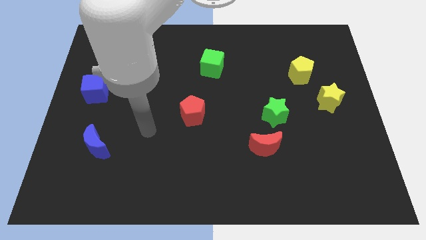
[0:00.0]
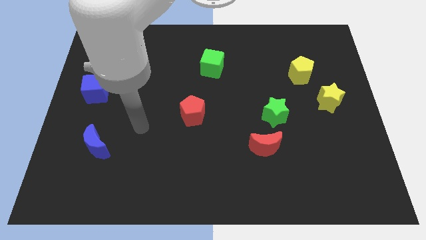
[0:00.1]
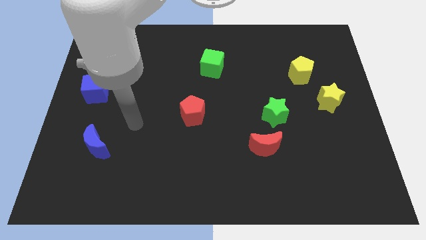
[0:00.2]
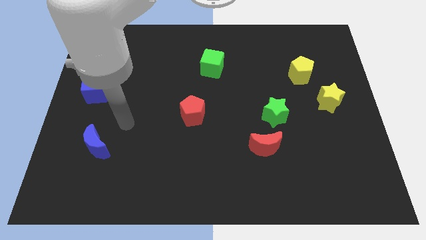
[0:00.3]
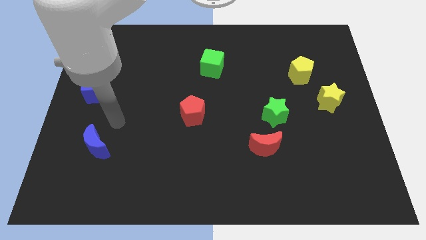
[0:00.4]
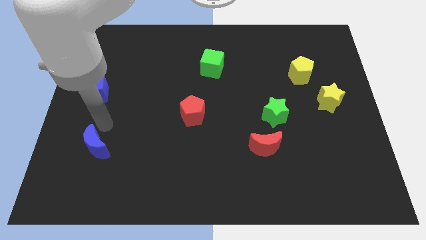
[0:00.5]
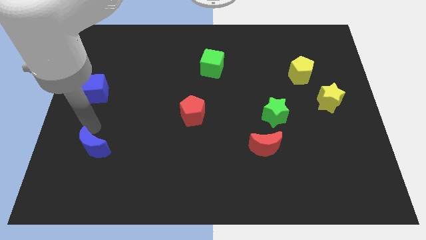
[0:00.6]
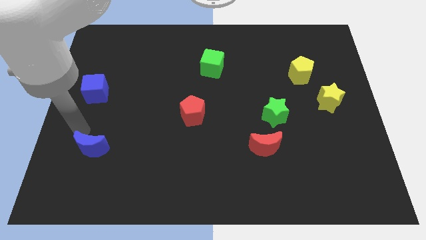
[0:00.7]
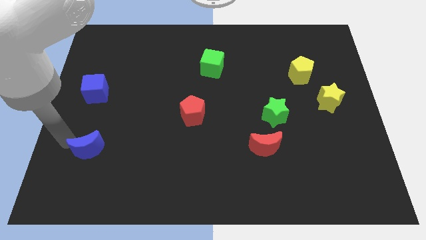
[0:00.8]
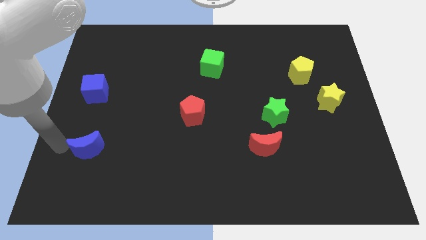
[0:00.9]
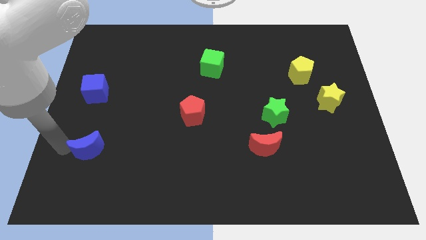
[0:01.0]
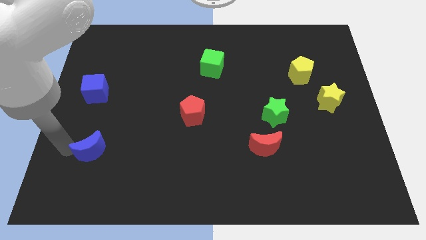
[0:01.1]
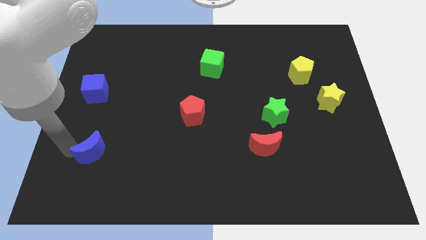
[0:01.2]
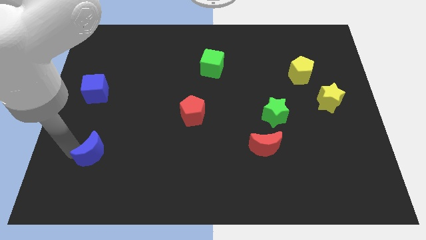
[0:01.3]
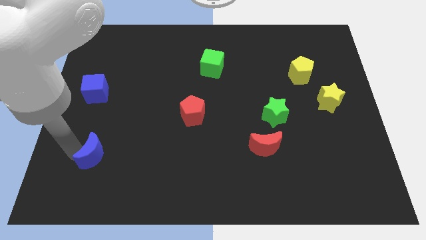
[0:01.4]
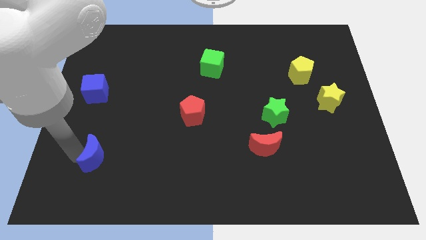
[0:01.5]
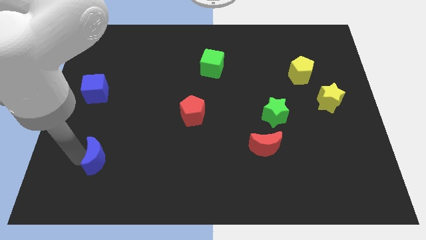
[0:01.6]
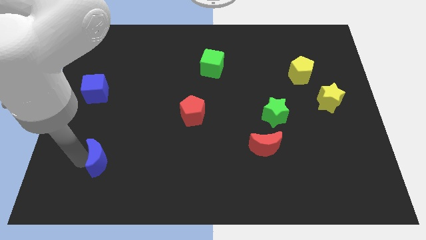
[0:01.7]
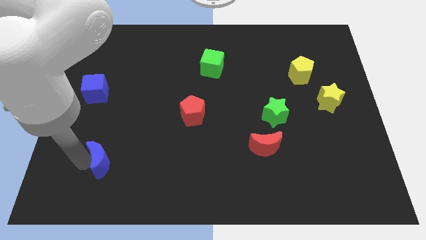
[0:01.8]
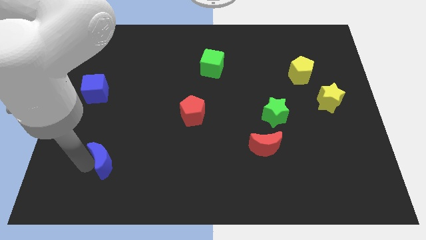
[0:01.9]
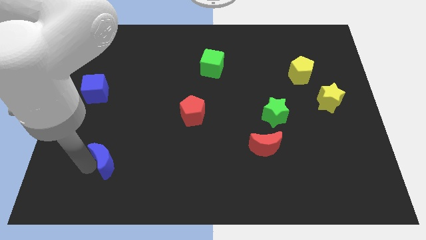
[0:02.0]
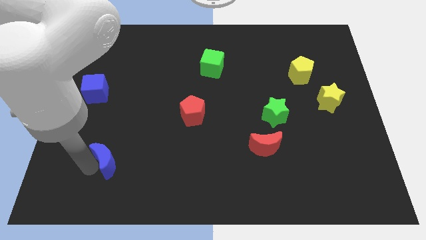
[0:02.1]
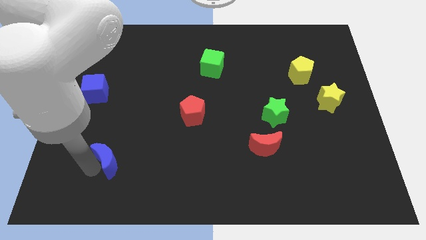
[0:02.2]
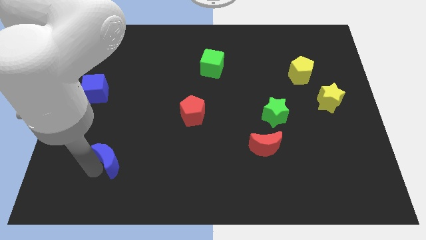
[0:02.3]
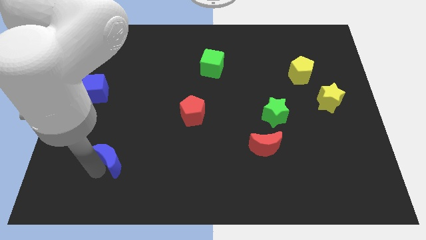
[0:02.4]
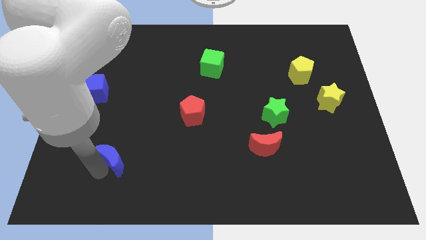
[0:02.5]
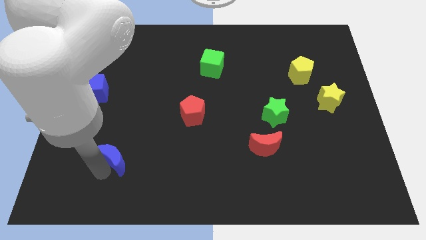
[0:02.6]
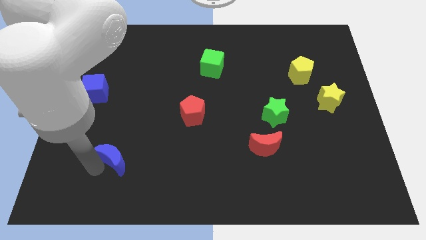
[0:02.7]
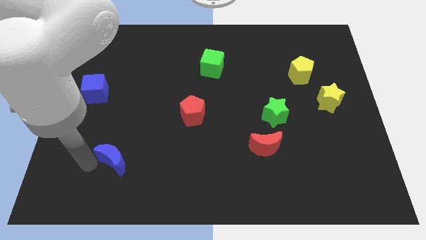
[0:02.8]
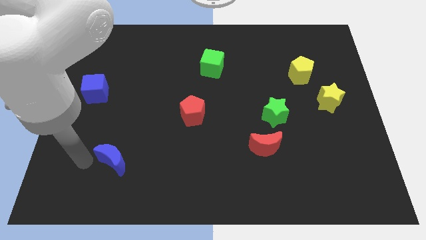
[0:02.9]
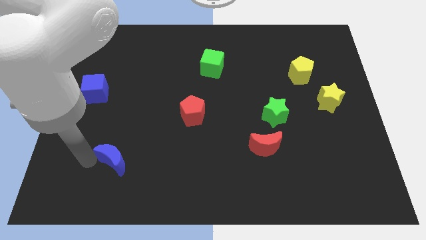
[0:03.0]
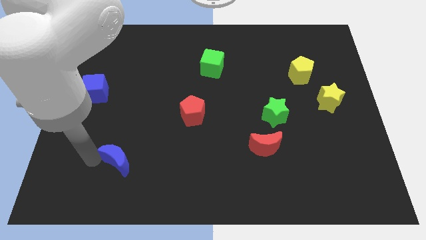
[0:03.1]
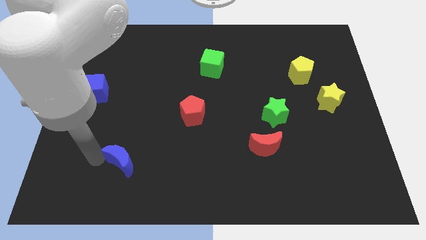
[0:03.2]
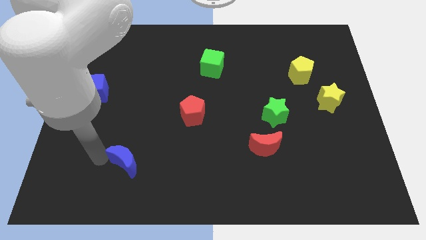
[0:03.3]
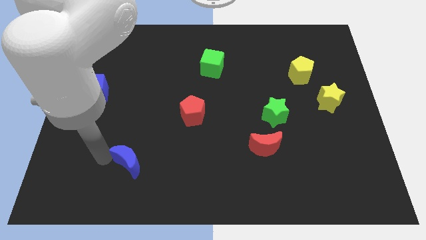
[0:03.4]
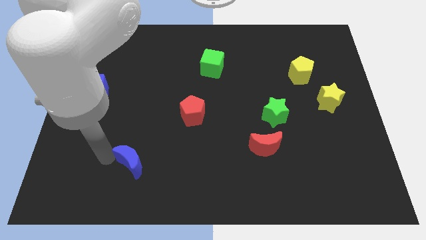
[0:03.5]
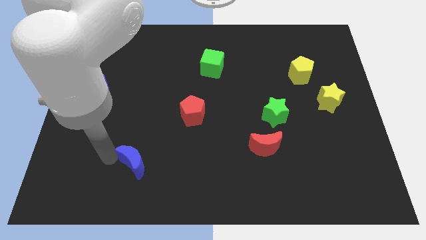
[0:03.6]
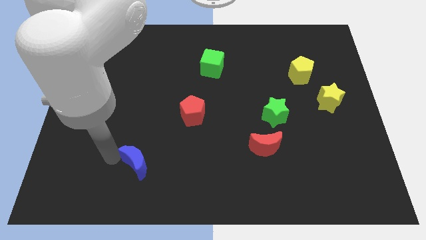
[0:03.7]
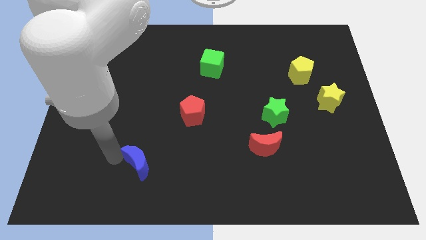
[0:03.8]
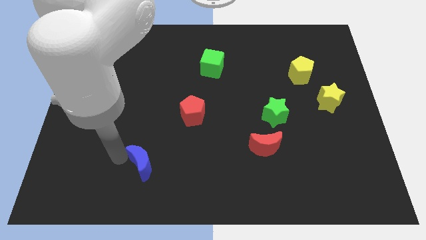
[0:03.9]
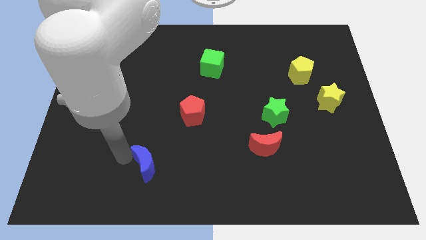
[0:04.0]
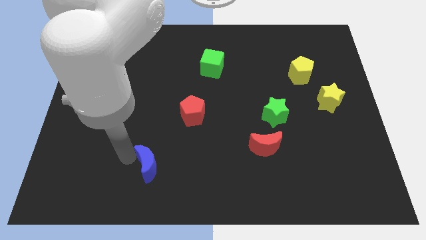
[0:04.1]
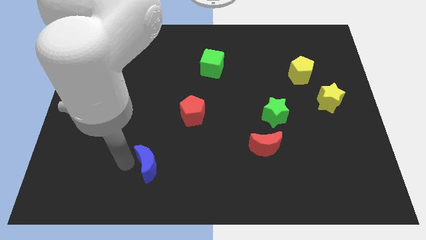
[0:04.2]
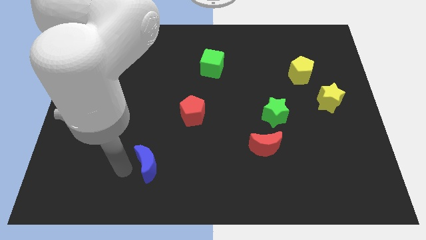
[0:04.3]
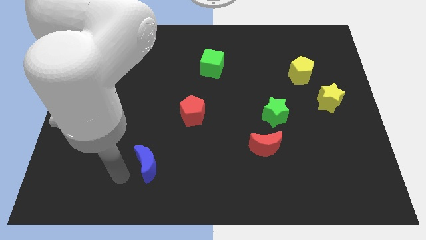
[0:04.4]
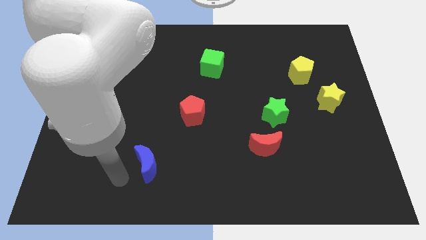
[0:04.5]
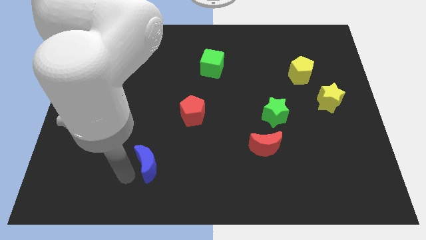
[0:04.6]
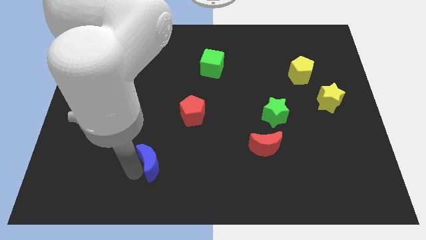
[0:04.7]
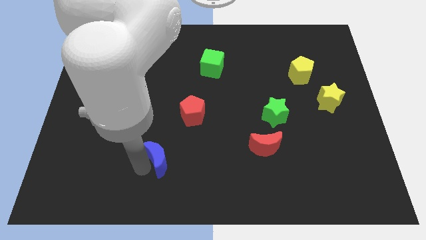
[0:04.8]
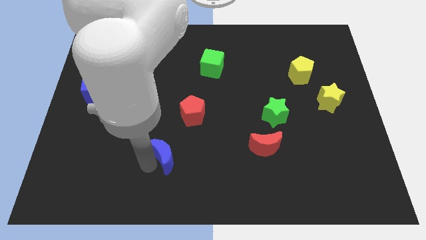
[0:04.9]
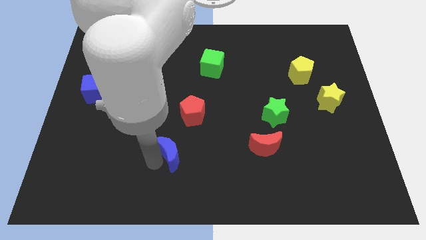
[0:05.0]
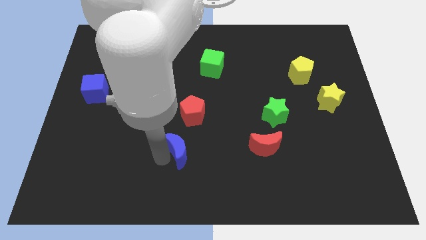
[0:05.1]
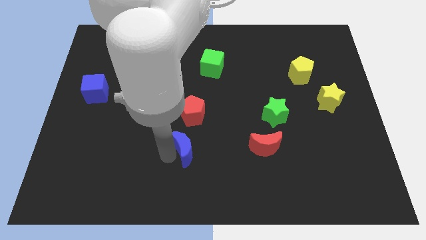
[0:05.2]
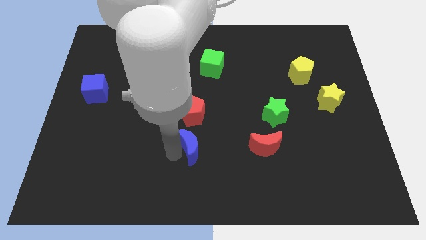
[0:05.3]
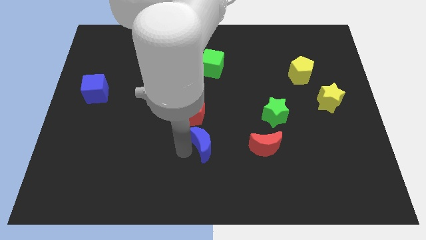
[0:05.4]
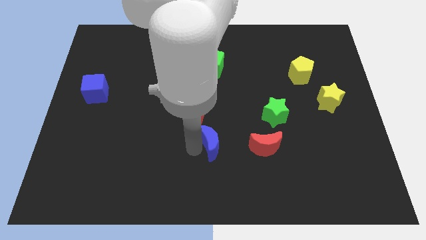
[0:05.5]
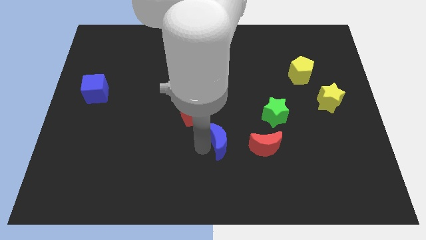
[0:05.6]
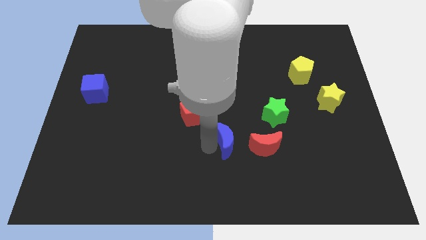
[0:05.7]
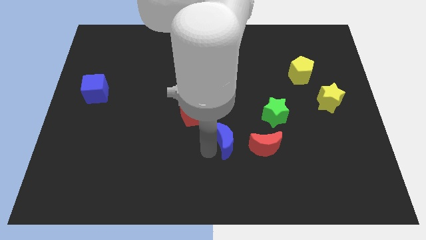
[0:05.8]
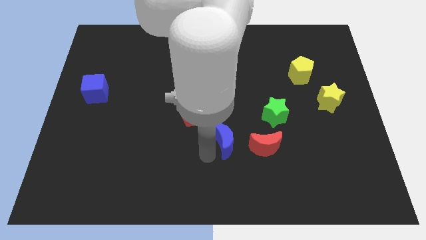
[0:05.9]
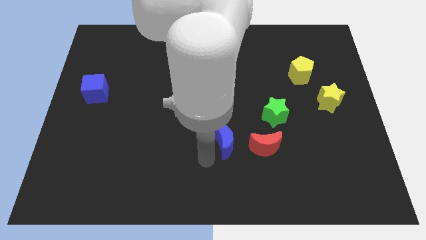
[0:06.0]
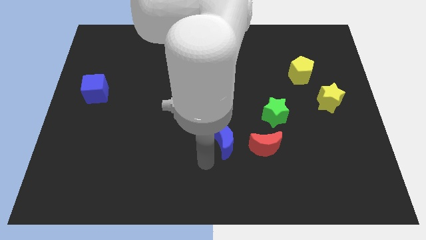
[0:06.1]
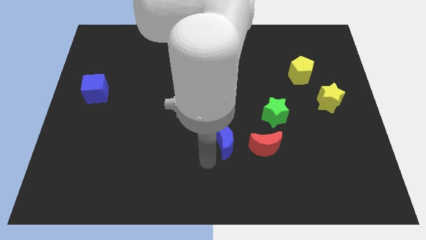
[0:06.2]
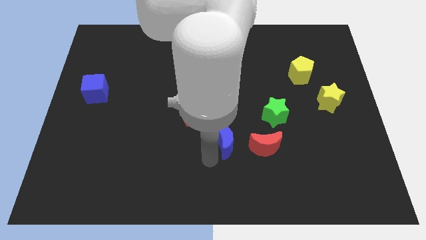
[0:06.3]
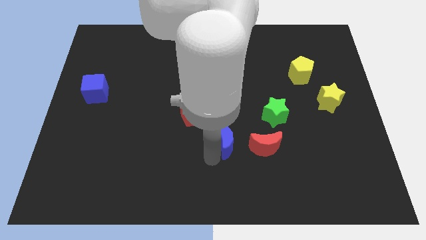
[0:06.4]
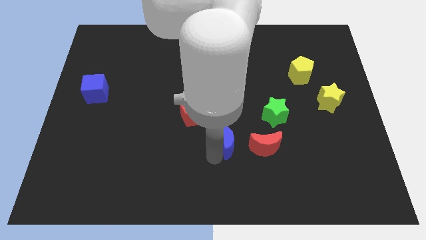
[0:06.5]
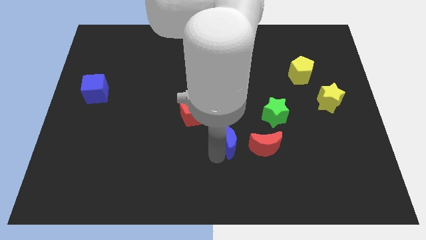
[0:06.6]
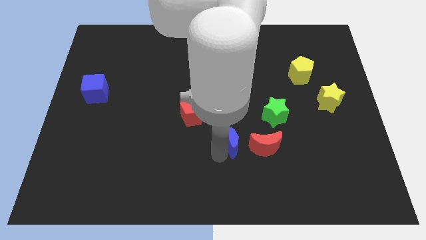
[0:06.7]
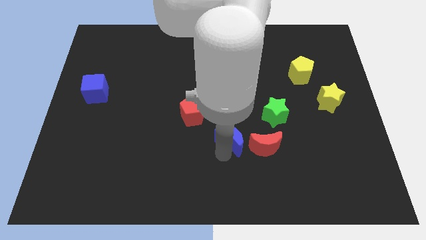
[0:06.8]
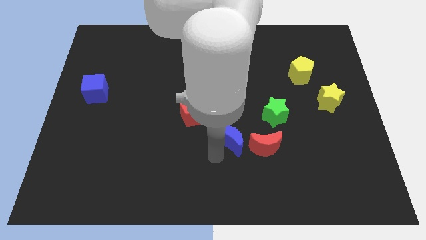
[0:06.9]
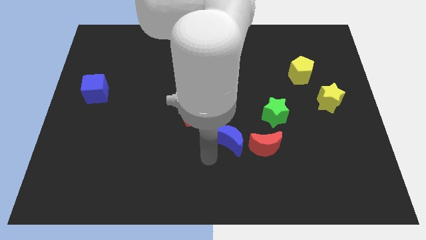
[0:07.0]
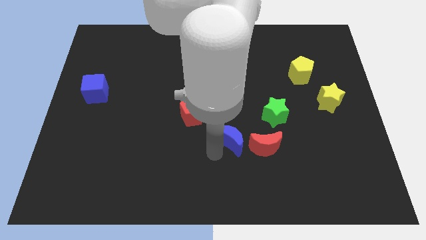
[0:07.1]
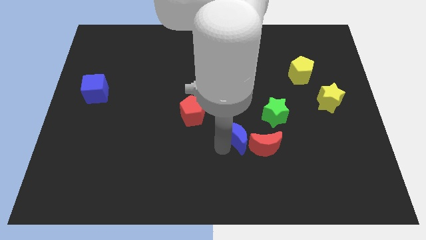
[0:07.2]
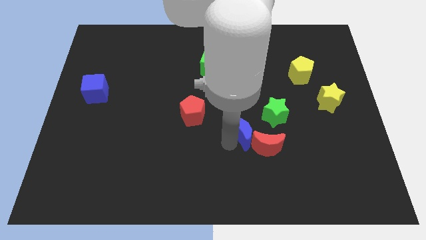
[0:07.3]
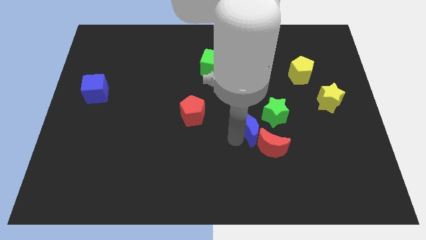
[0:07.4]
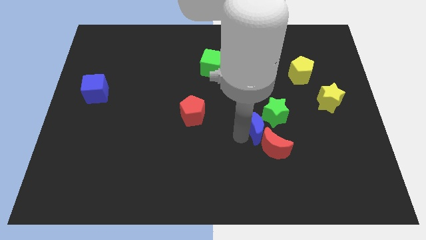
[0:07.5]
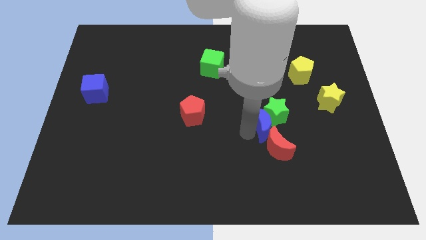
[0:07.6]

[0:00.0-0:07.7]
move the blue moon next to the green star

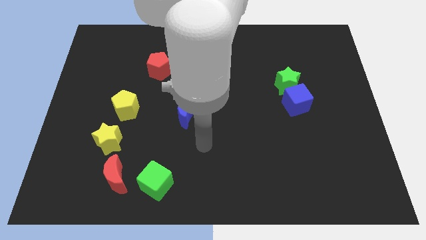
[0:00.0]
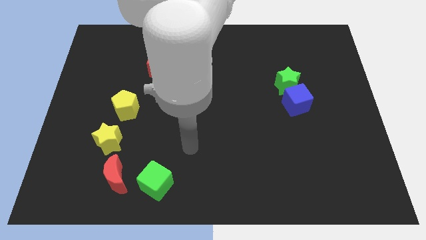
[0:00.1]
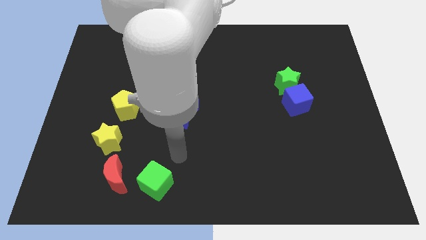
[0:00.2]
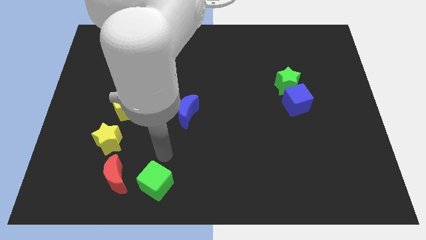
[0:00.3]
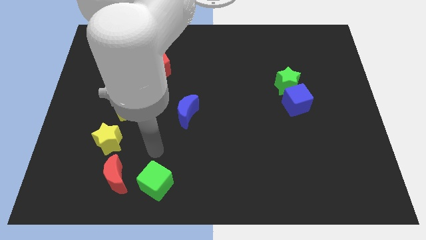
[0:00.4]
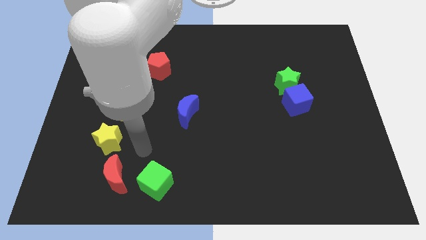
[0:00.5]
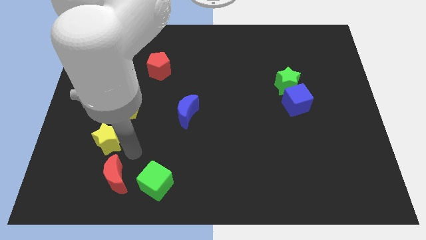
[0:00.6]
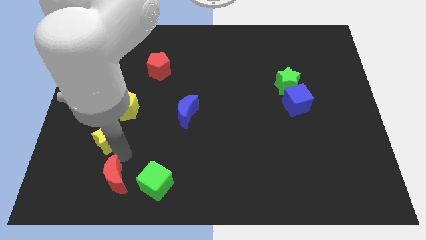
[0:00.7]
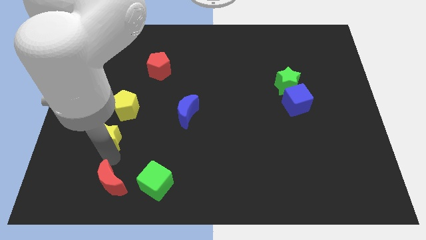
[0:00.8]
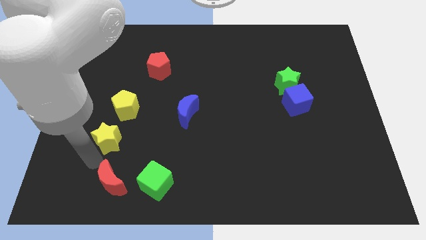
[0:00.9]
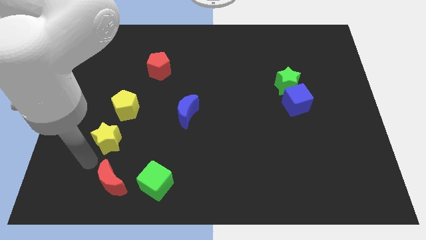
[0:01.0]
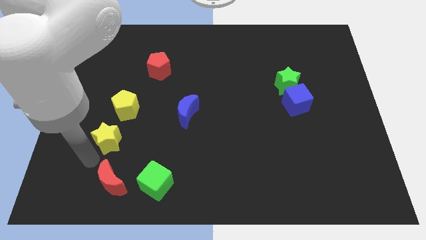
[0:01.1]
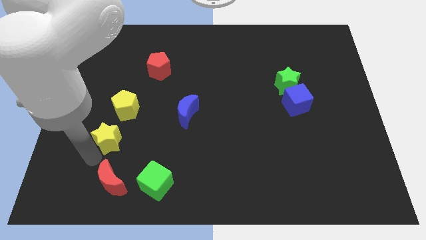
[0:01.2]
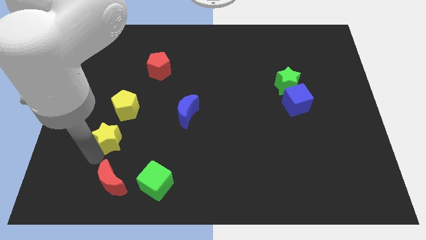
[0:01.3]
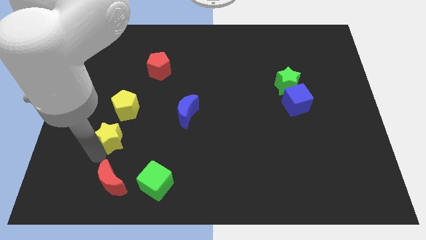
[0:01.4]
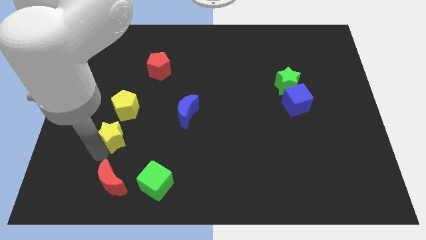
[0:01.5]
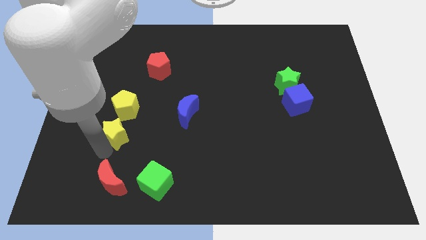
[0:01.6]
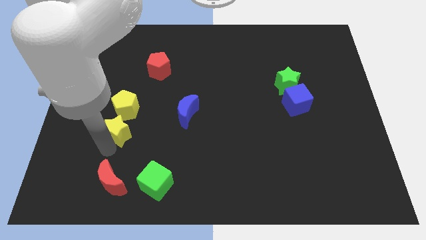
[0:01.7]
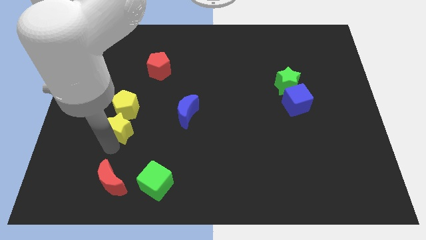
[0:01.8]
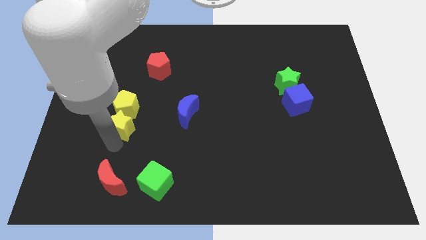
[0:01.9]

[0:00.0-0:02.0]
put the yellow star to the yellow pentagon
